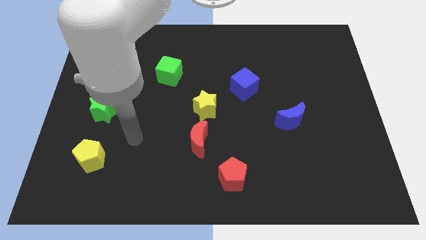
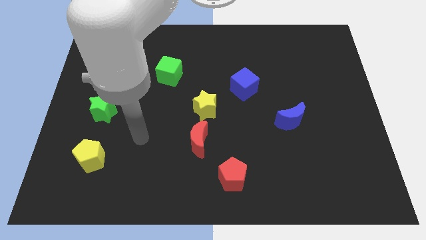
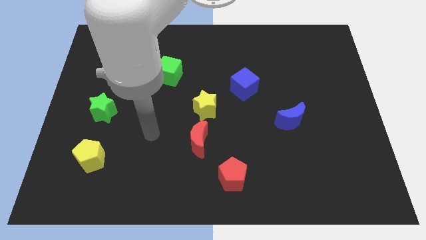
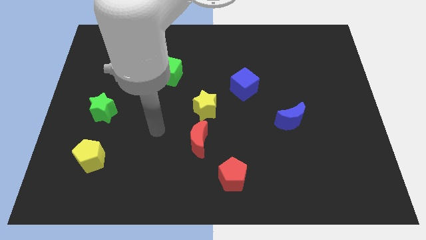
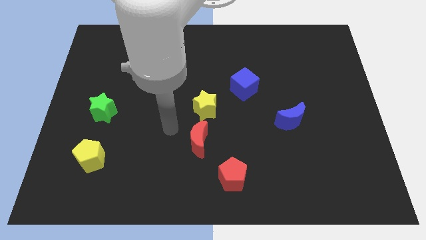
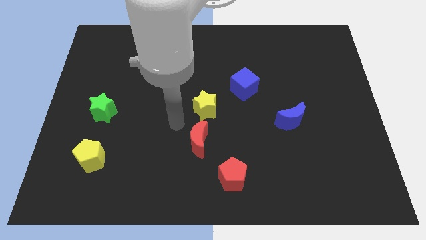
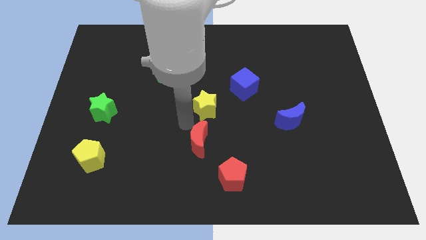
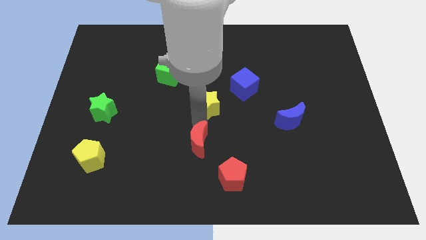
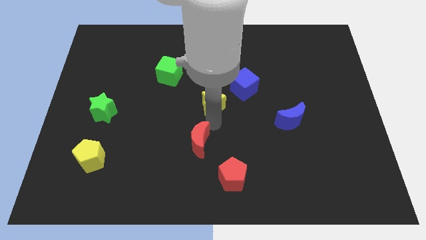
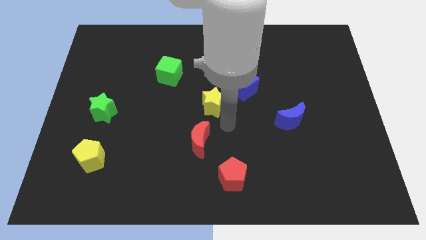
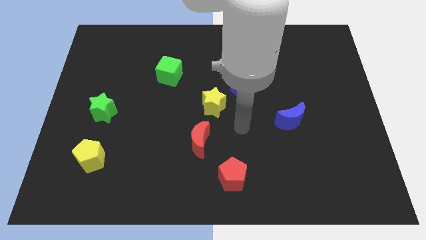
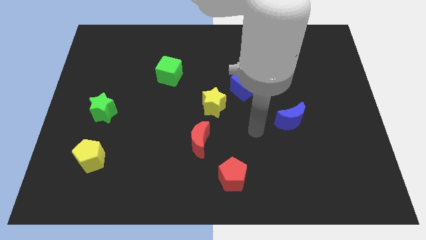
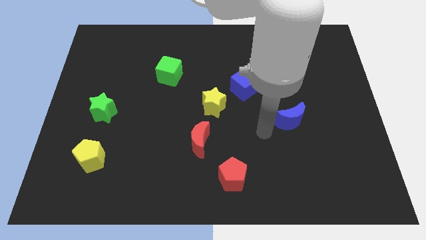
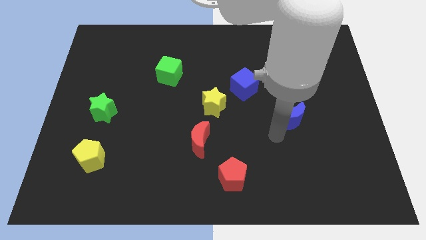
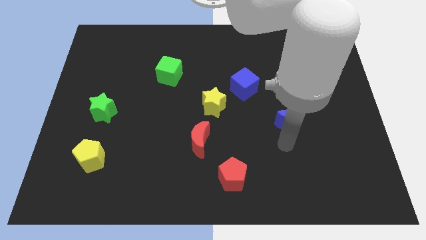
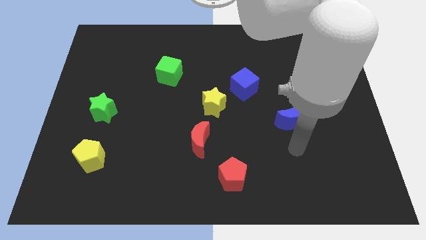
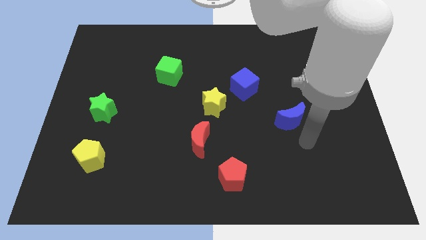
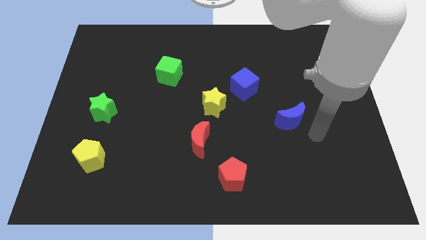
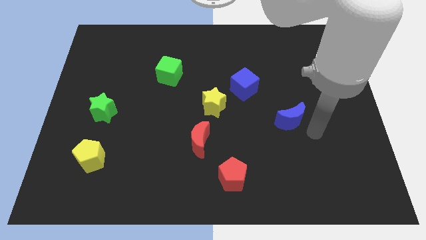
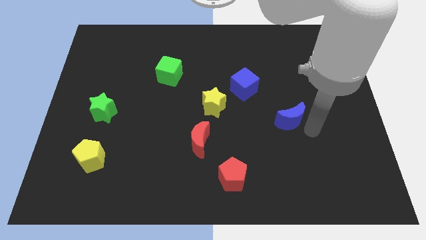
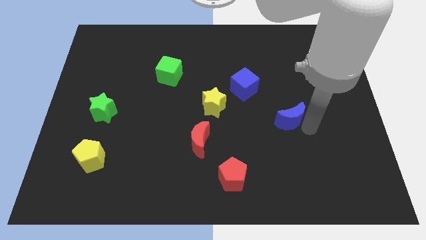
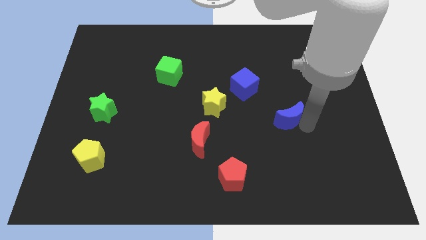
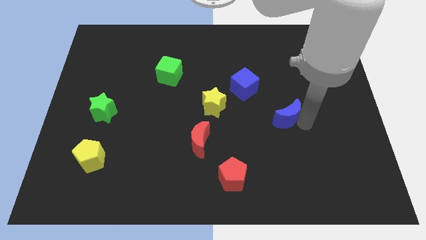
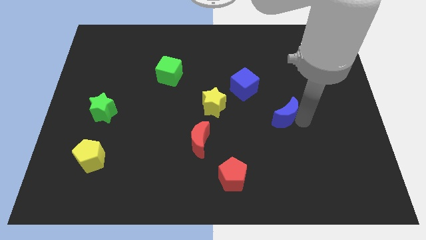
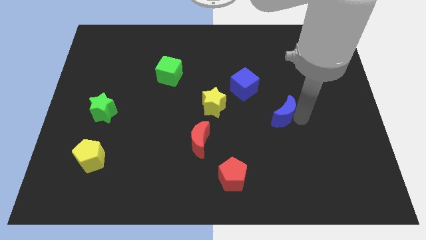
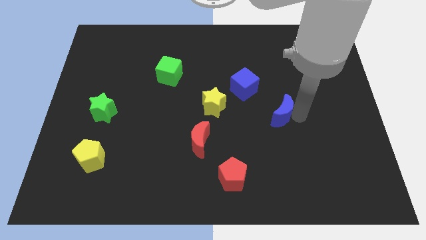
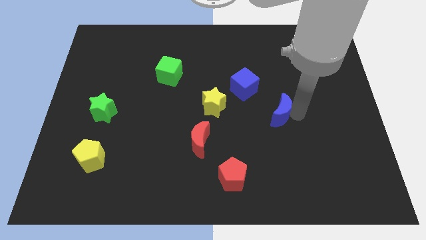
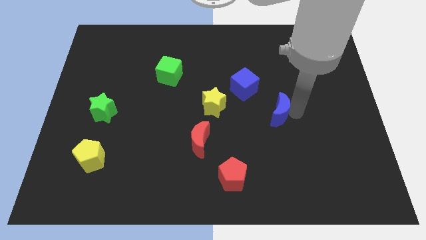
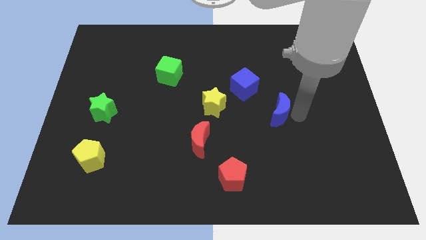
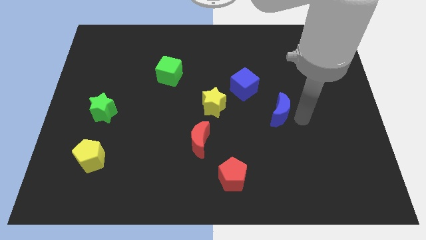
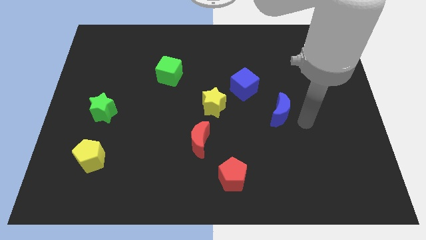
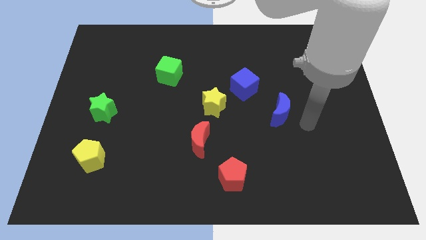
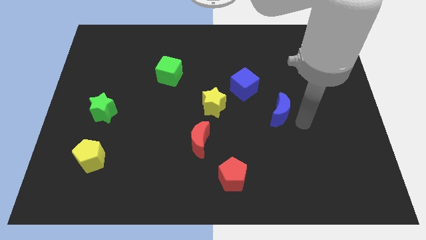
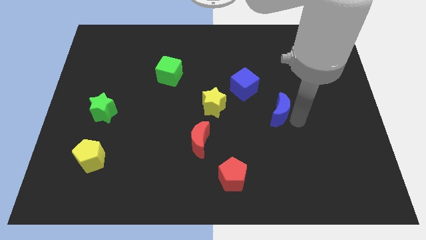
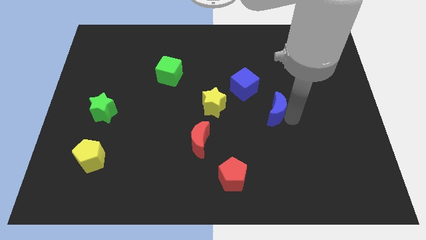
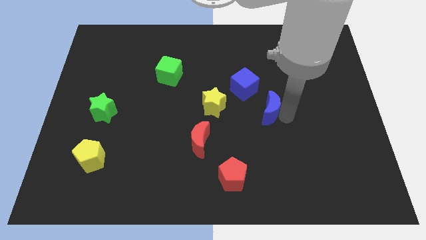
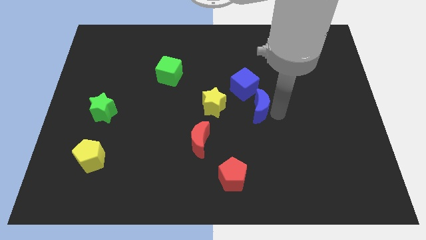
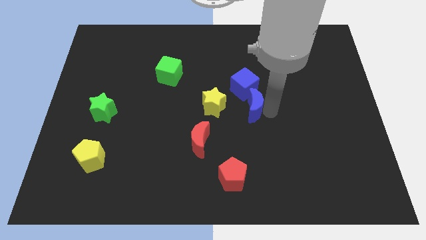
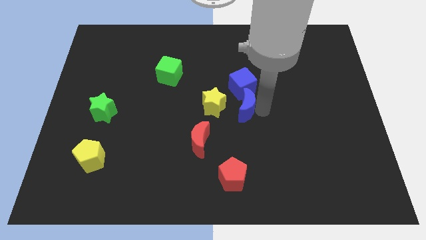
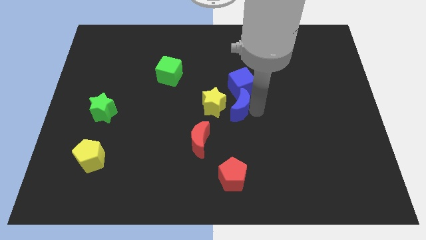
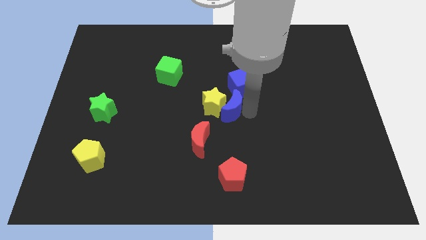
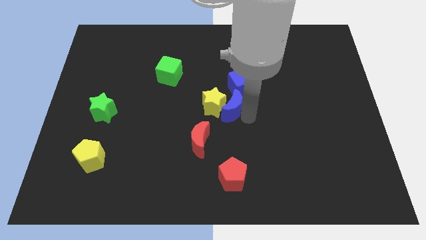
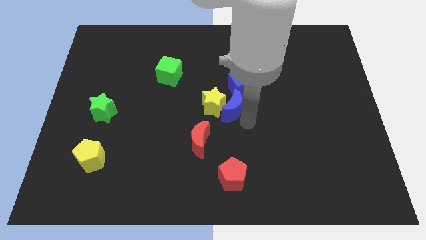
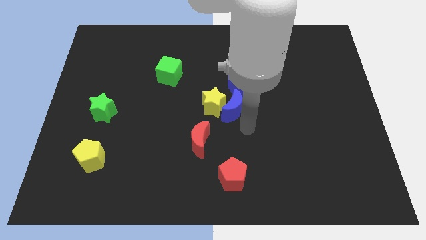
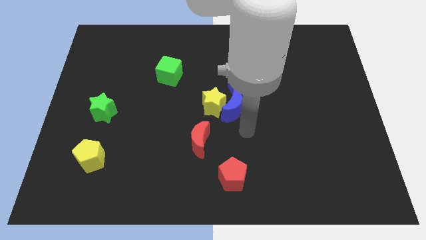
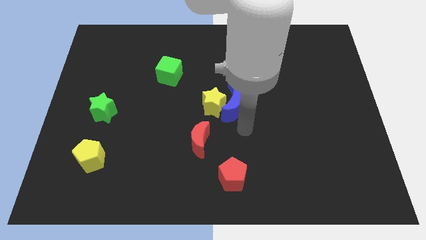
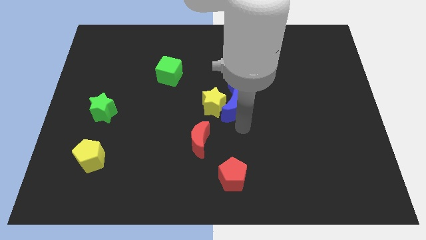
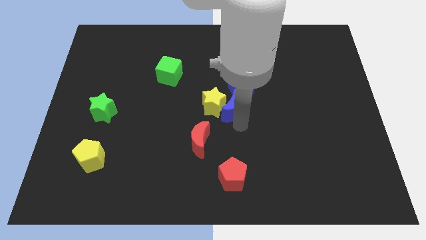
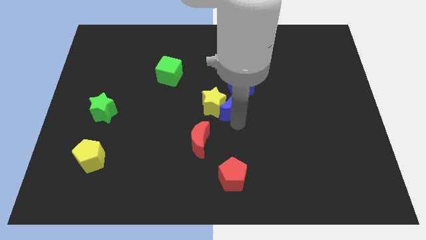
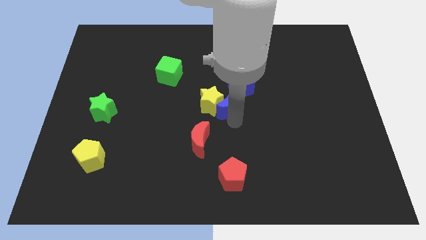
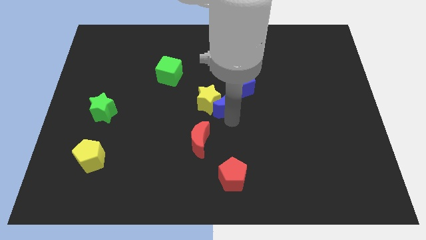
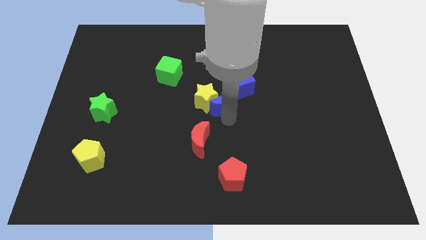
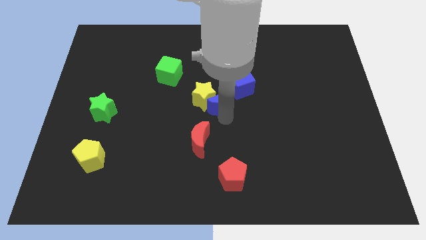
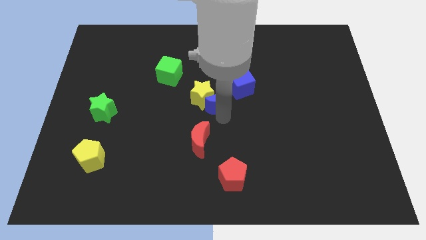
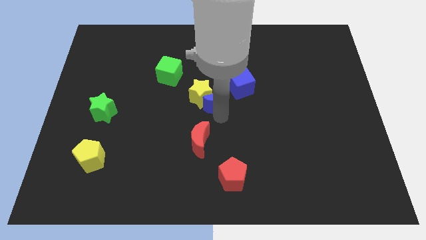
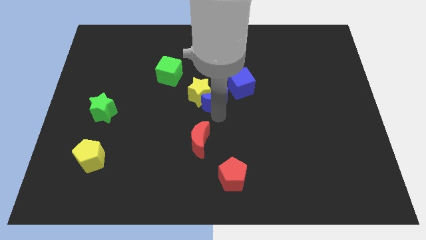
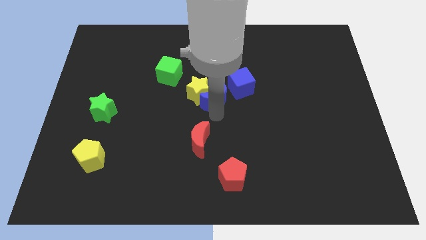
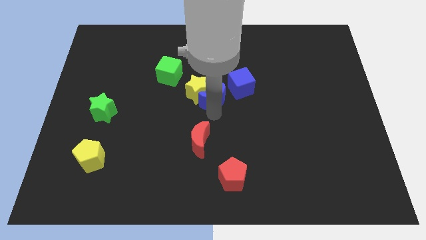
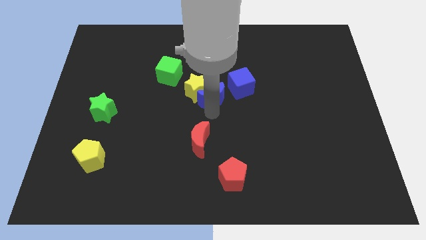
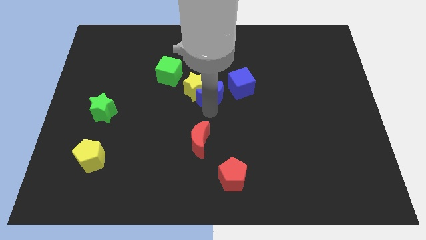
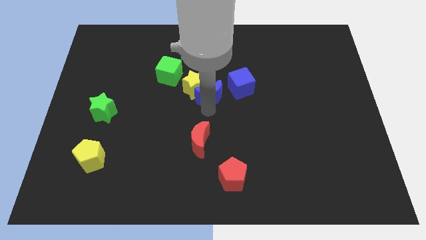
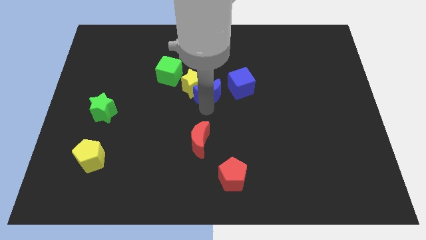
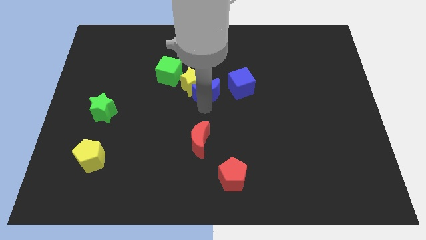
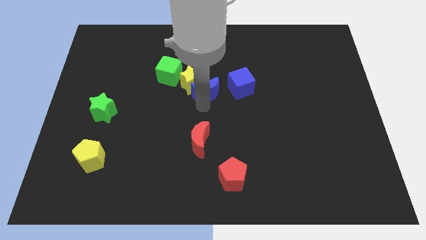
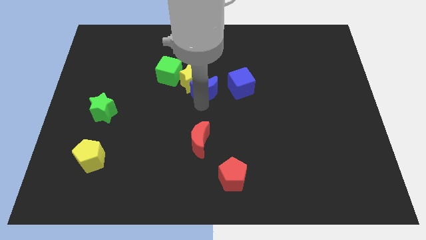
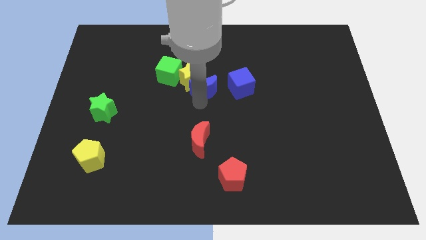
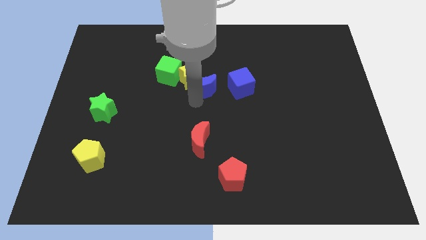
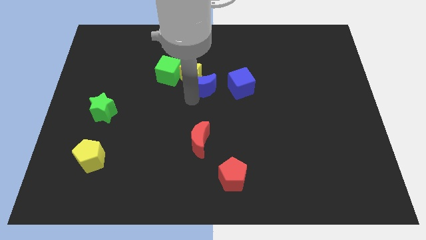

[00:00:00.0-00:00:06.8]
slide the blue moon just right of the green cube

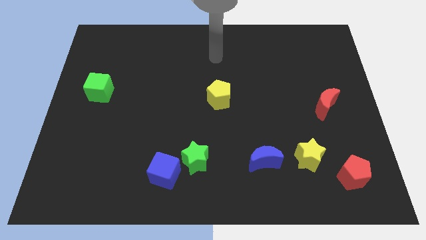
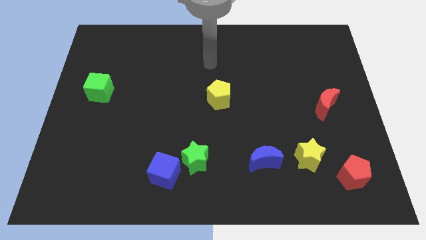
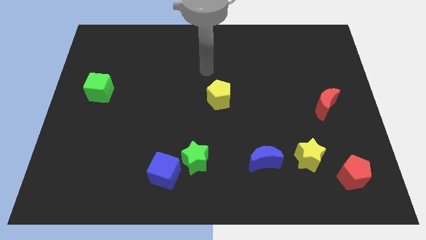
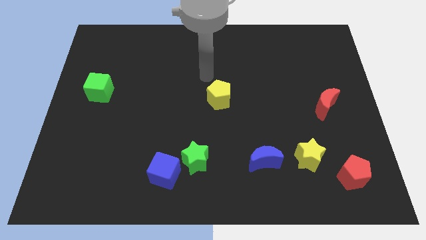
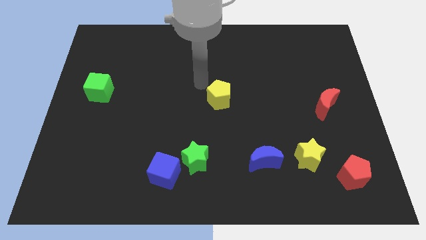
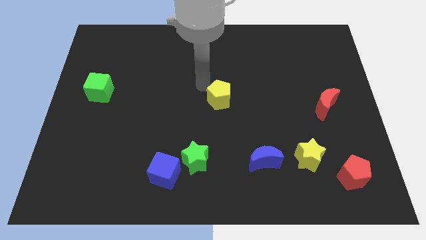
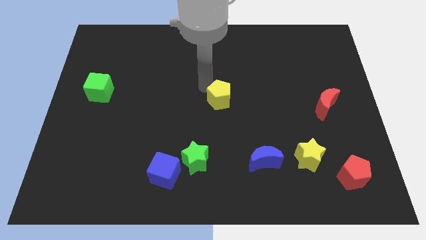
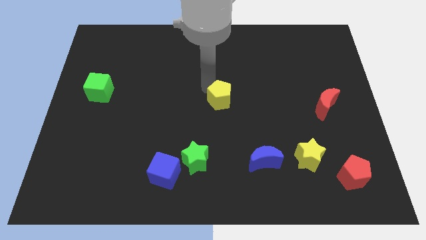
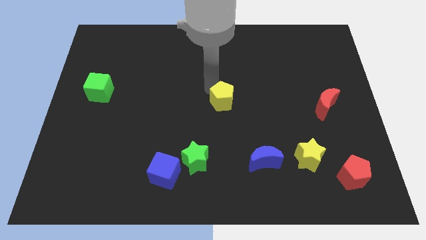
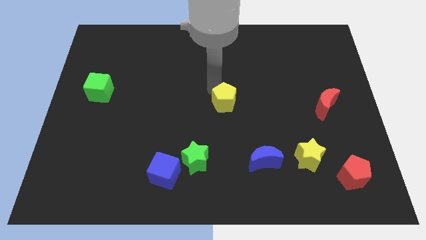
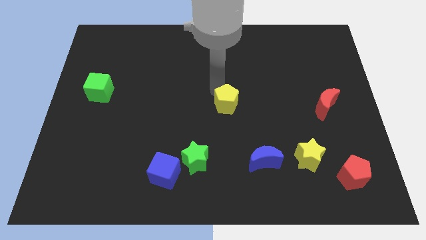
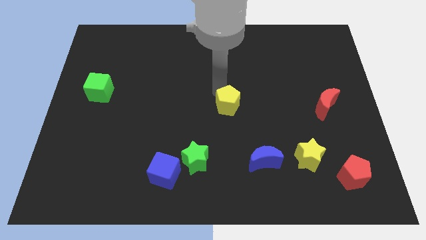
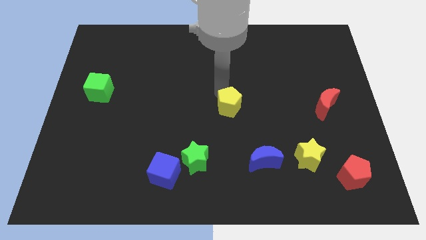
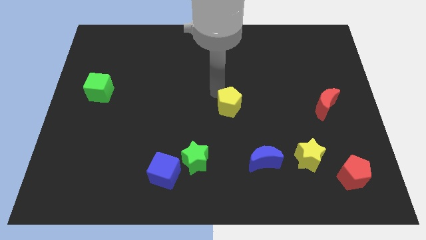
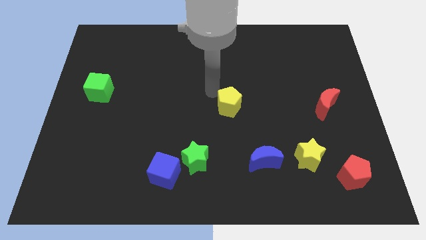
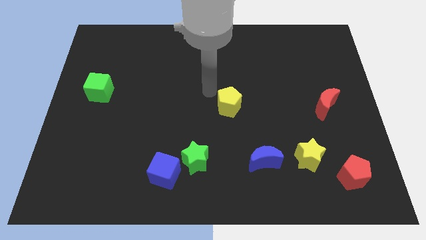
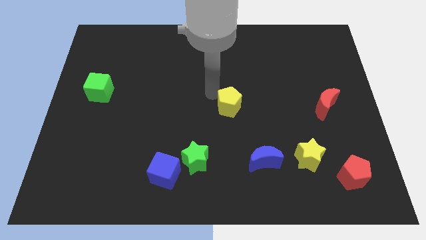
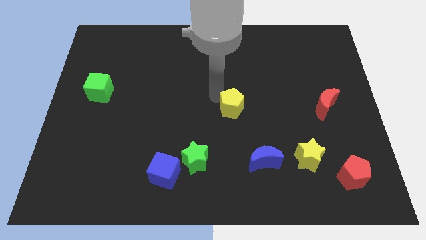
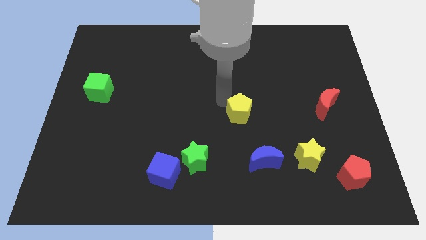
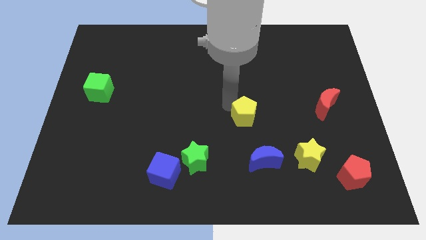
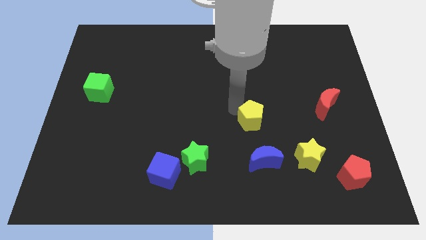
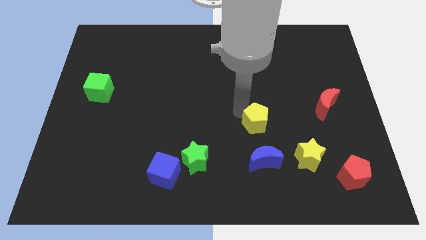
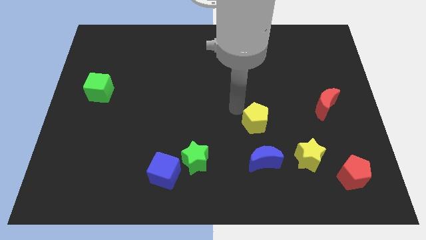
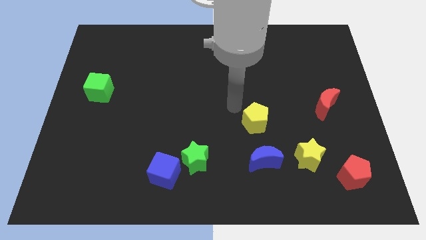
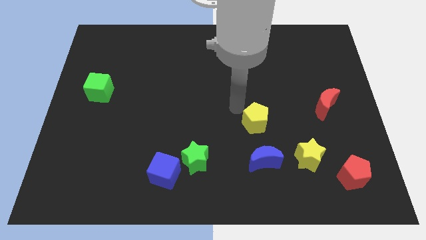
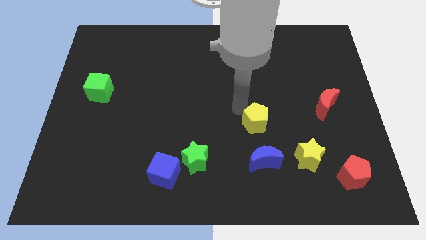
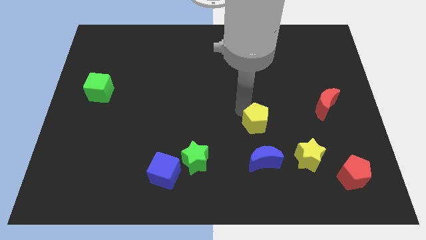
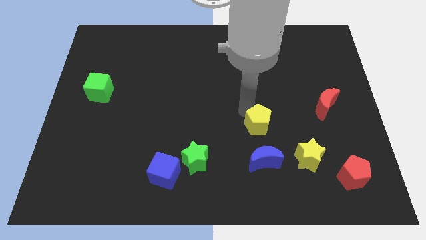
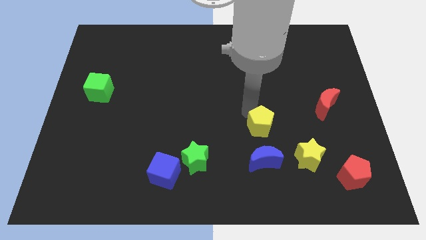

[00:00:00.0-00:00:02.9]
push the yellow pentagon diagonally up and to the left of the yellow star
